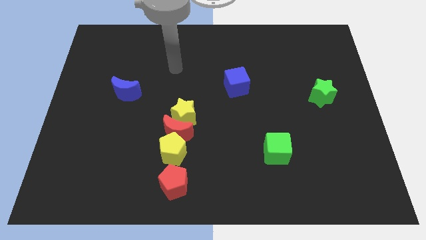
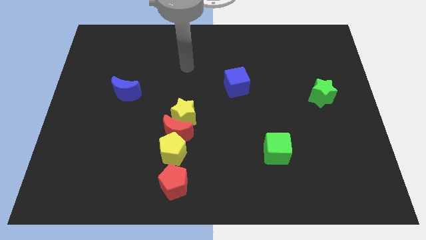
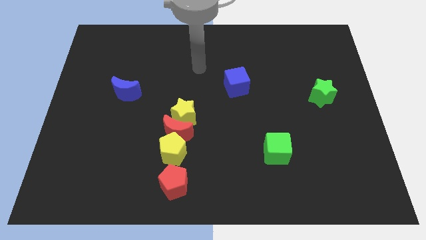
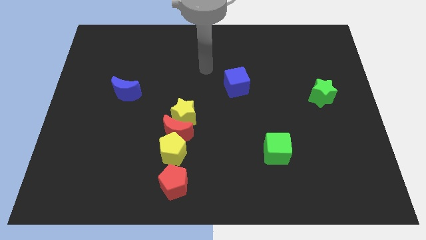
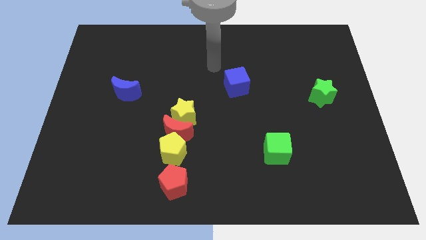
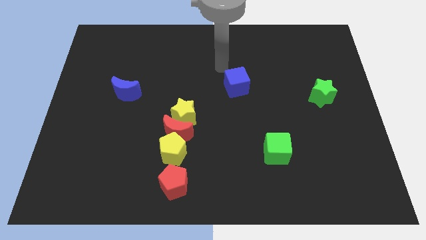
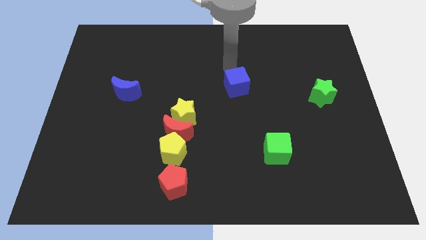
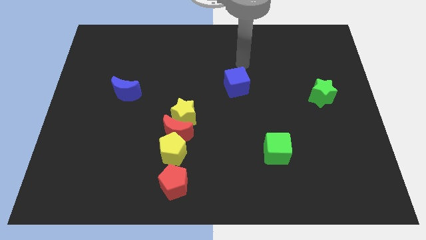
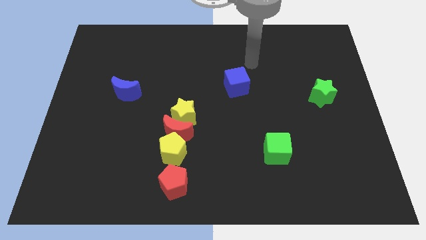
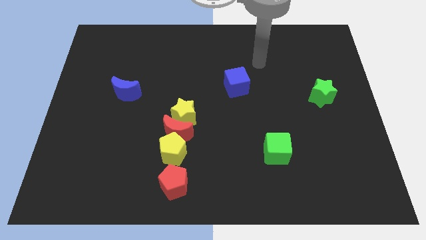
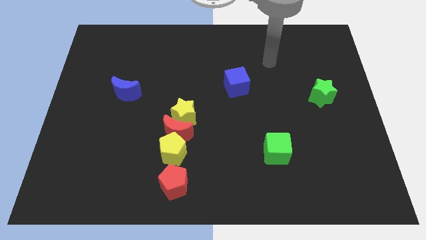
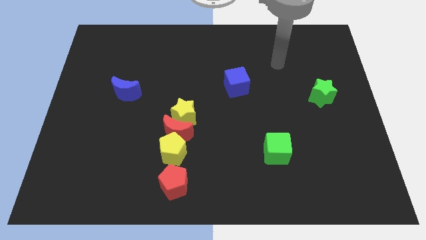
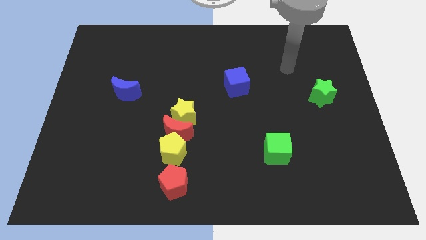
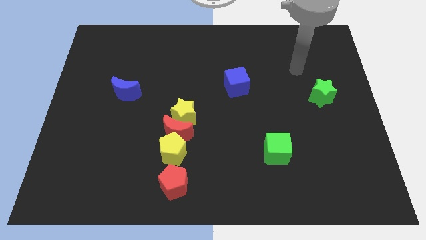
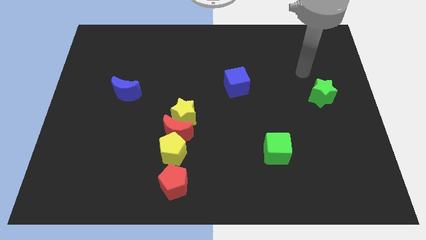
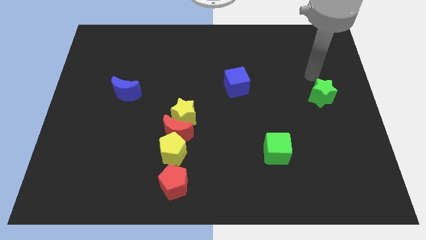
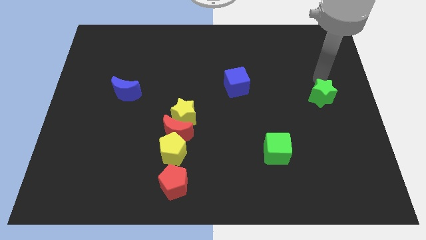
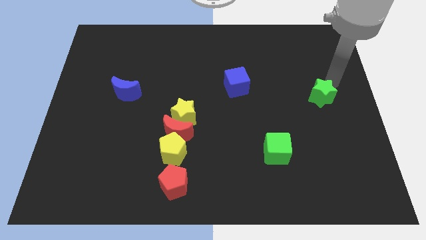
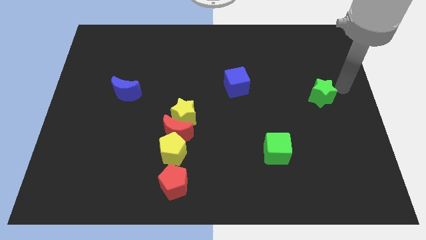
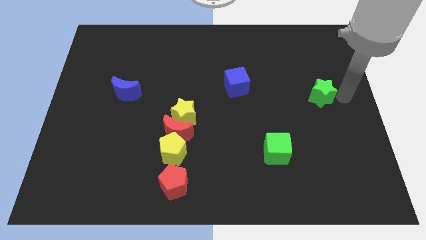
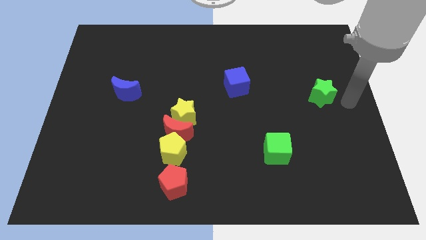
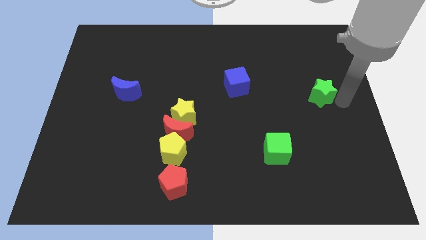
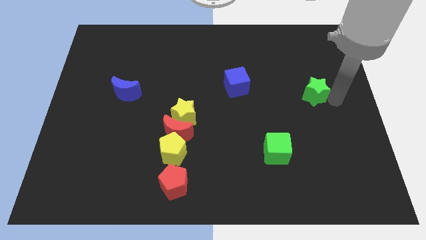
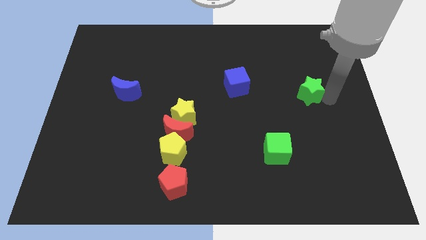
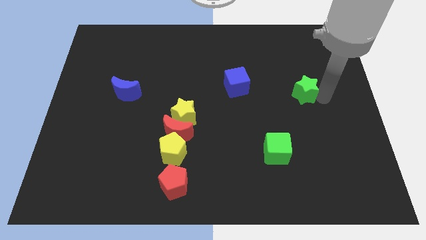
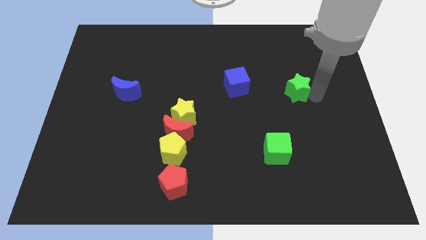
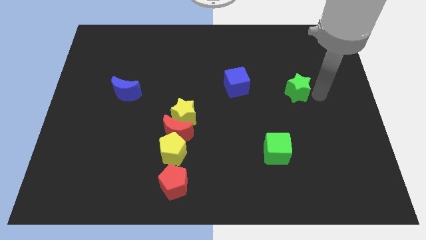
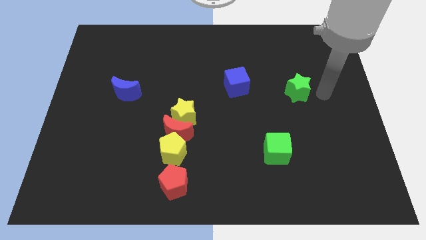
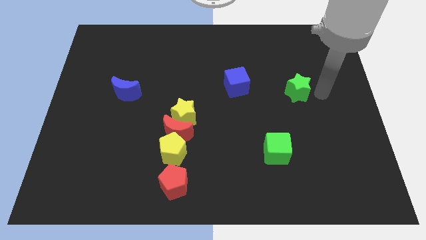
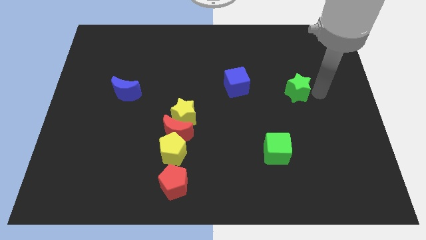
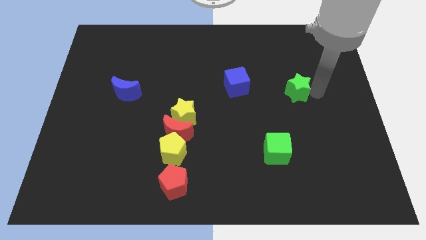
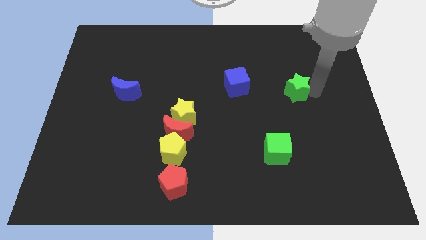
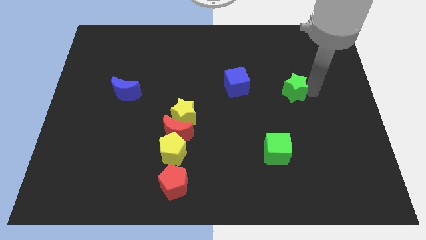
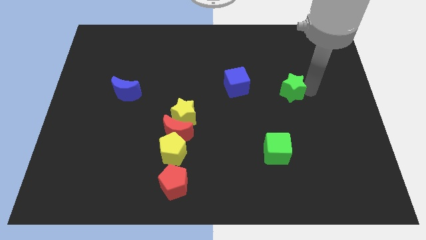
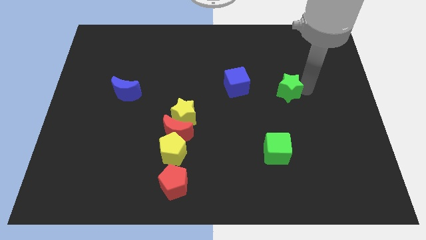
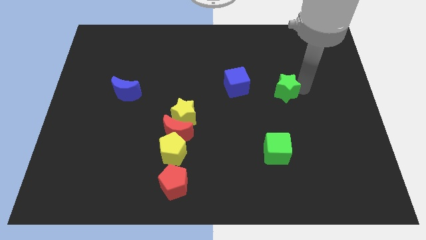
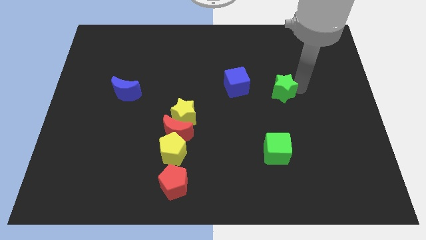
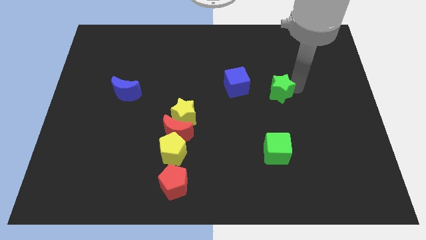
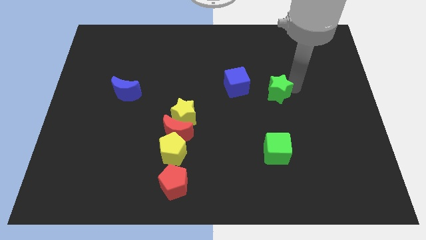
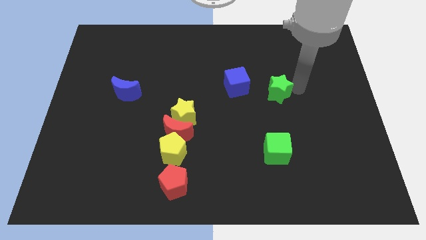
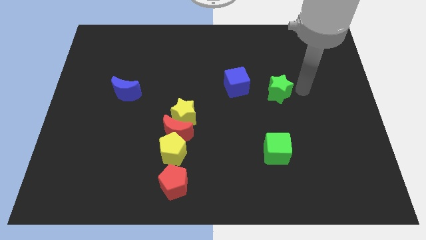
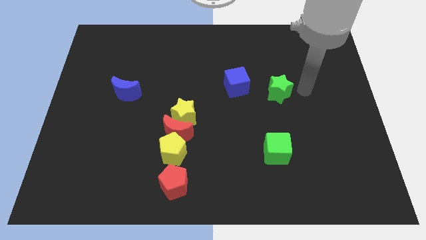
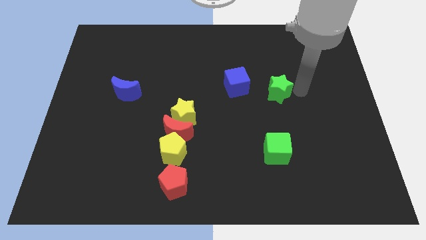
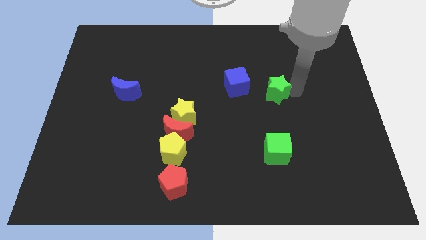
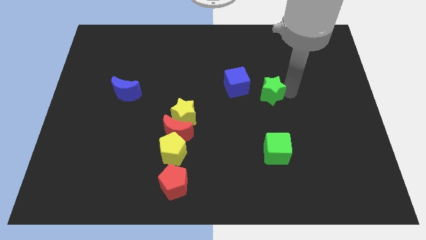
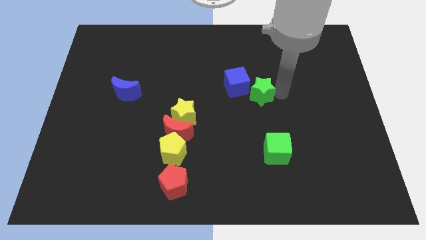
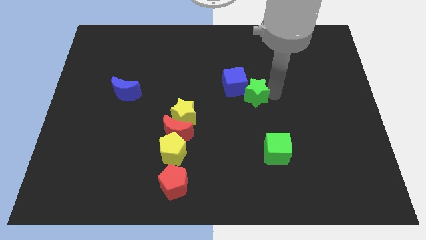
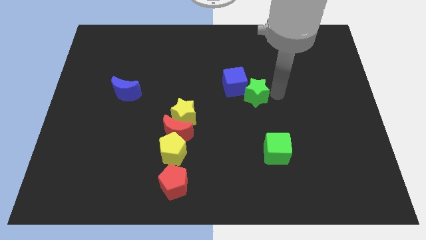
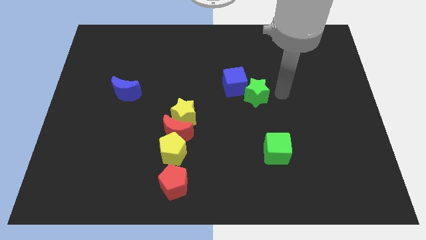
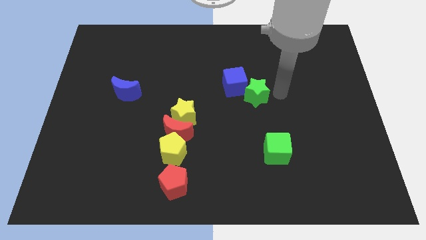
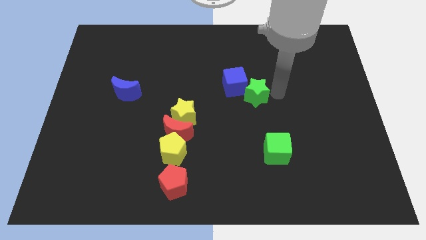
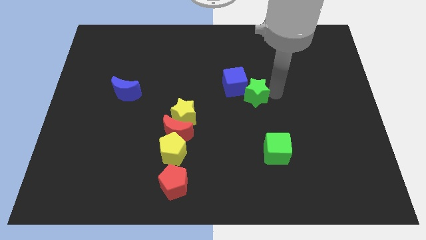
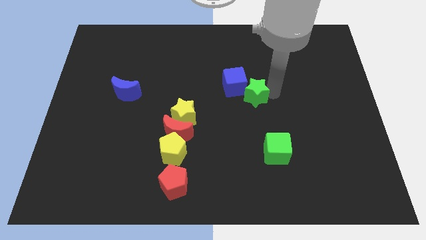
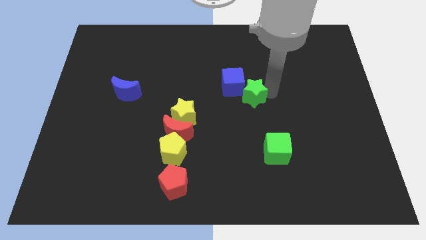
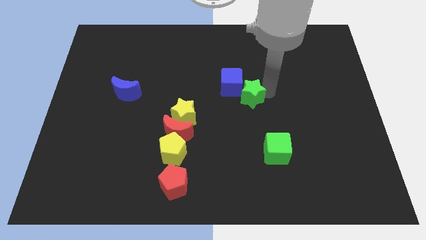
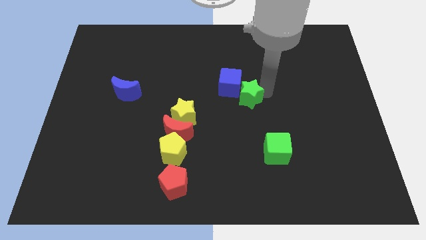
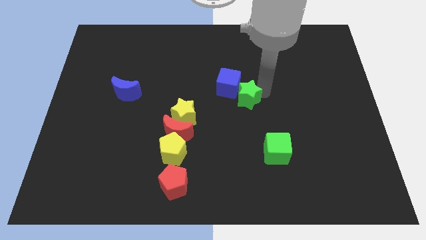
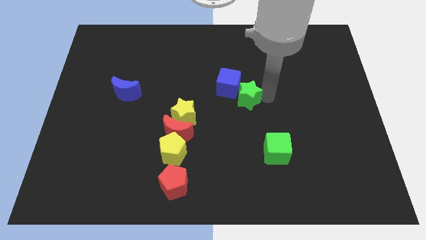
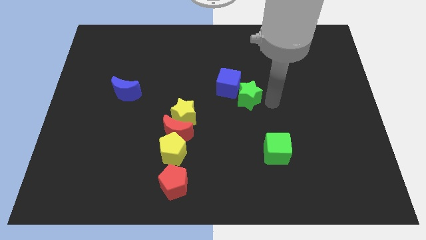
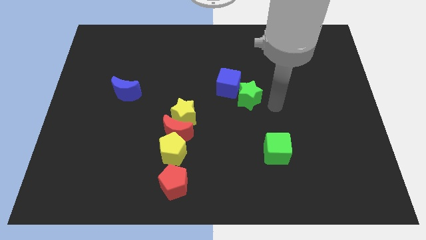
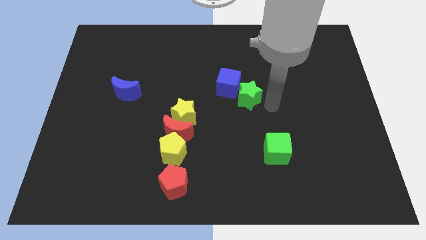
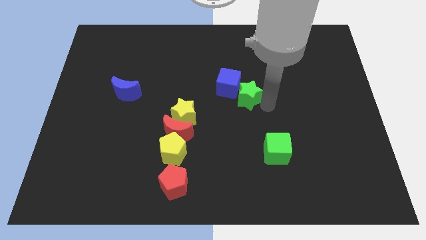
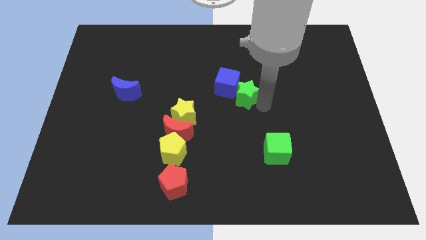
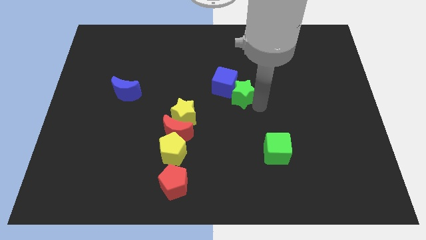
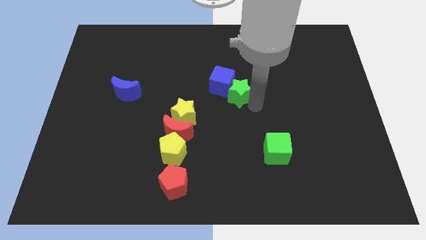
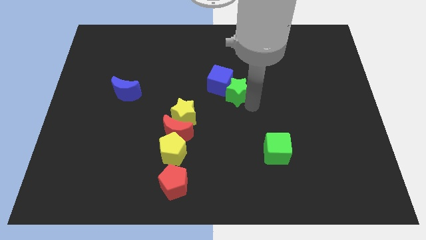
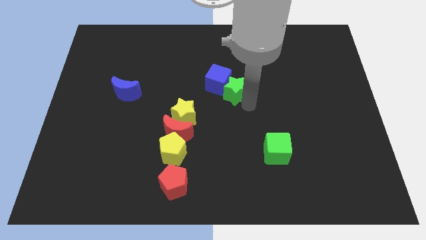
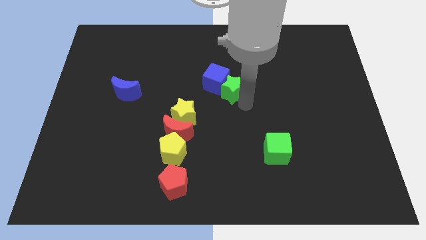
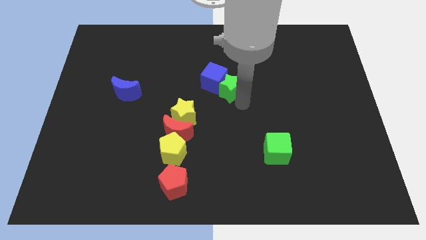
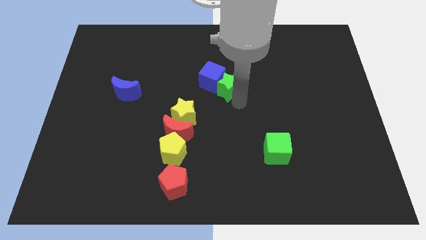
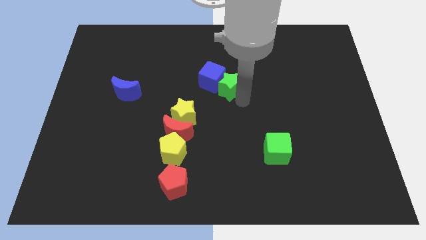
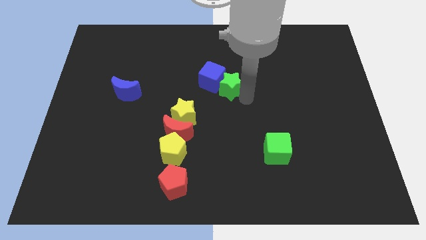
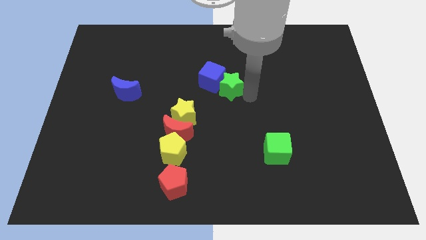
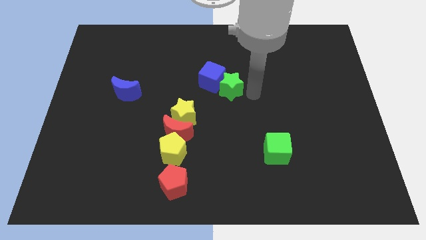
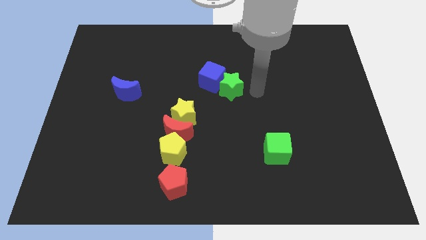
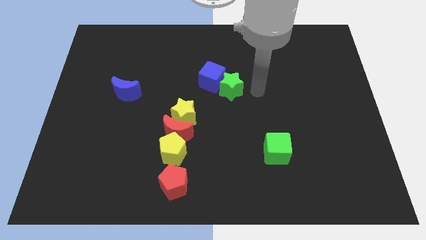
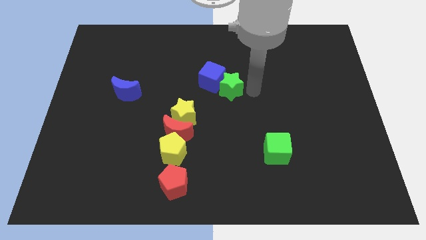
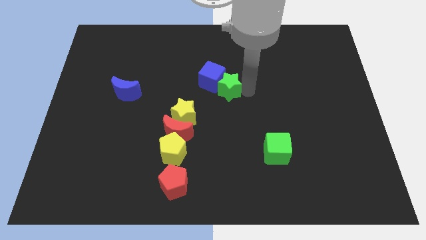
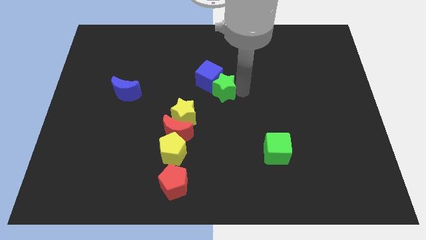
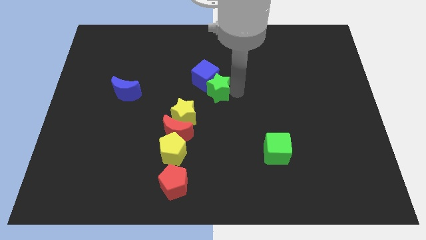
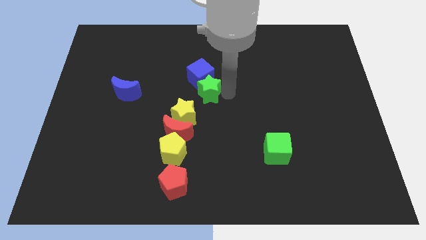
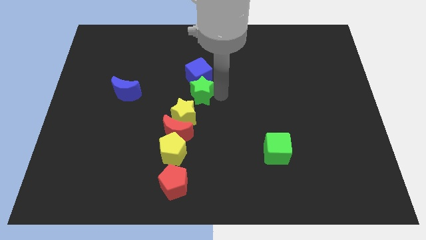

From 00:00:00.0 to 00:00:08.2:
put the green star to the top of the yellow star
